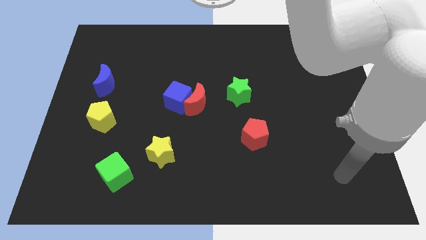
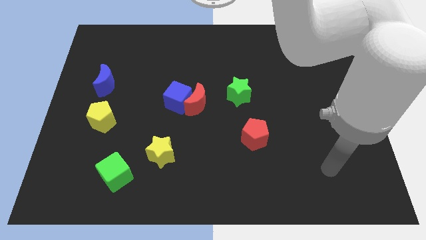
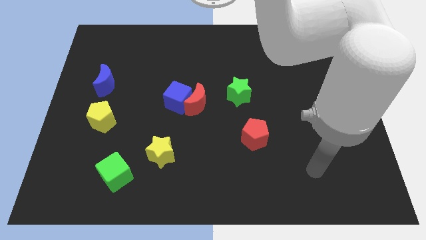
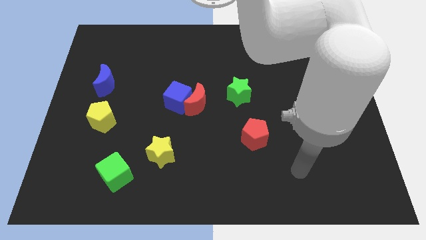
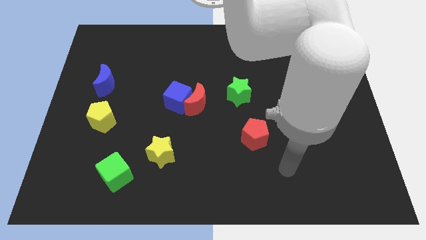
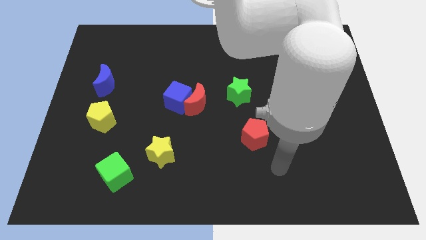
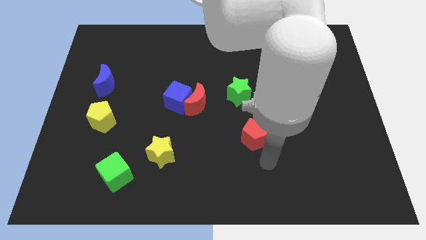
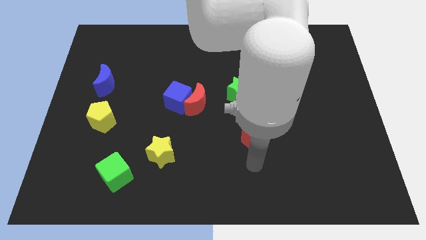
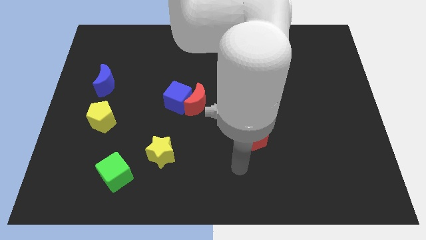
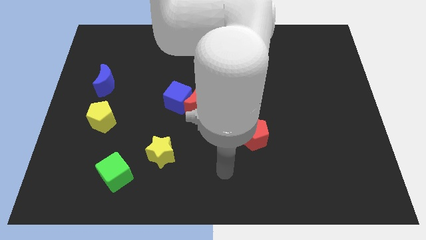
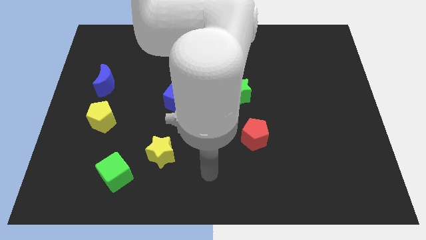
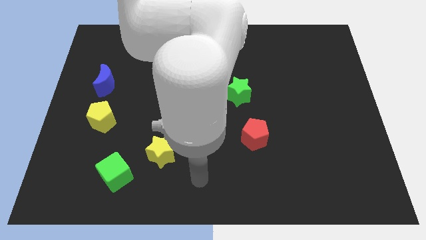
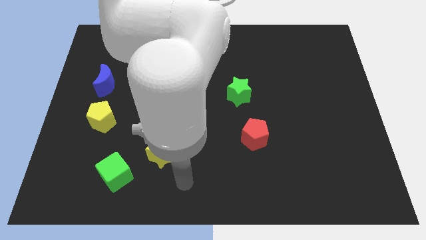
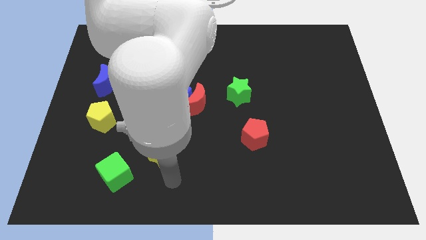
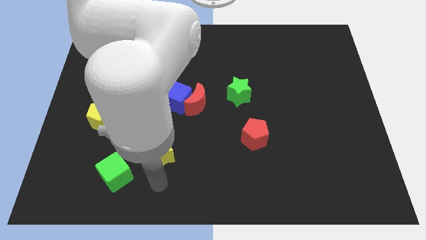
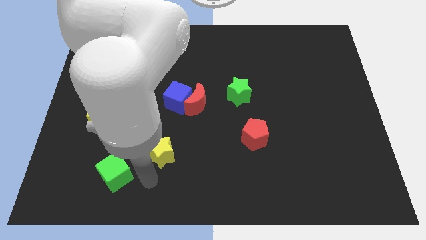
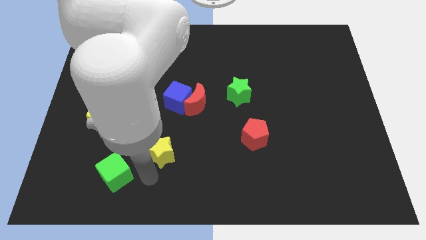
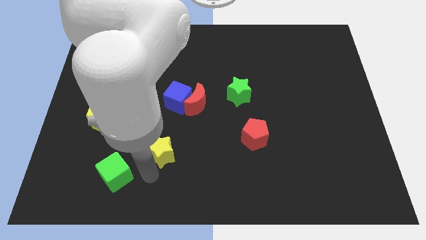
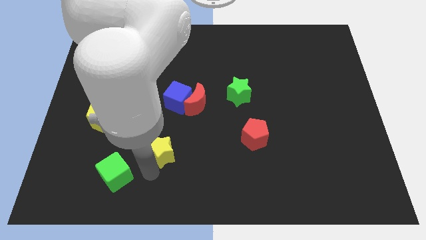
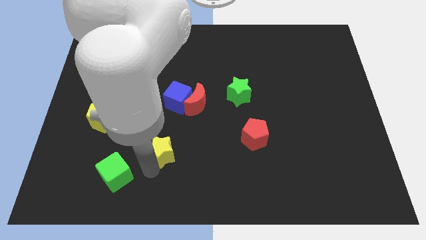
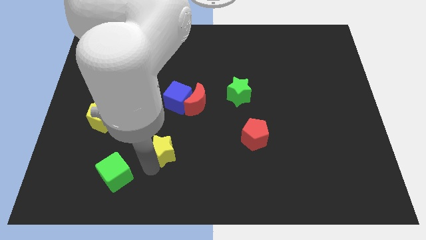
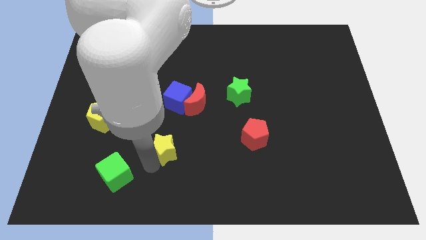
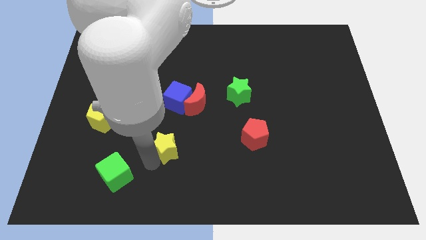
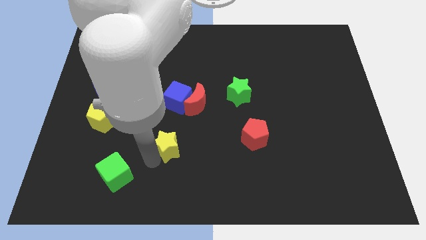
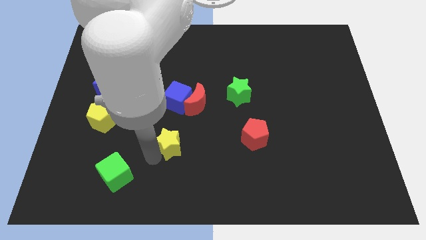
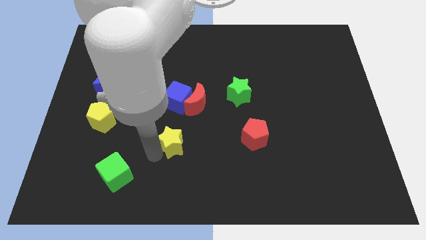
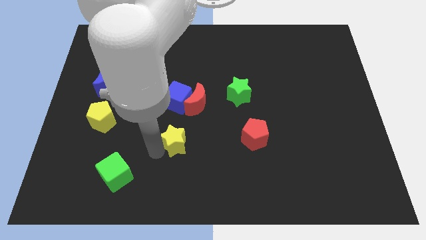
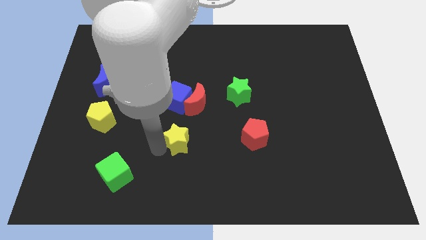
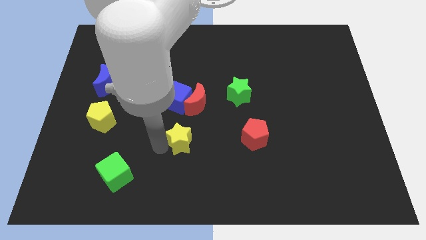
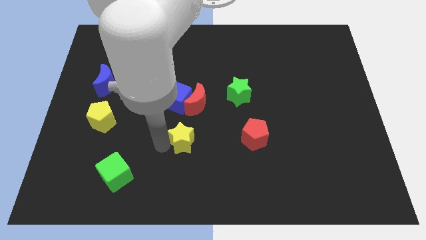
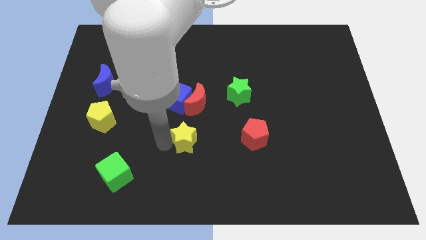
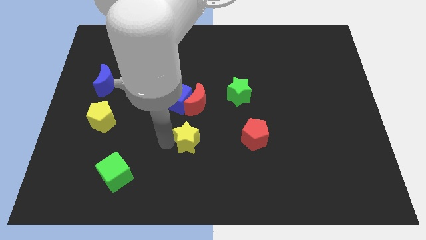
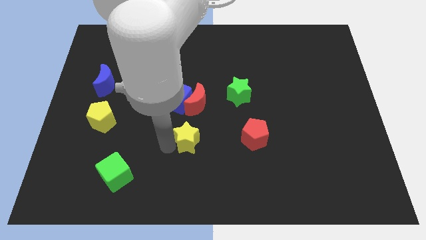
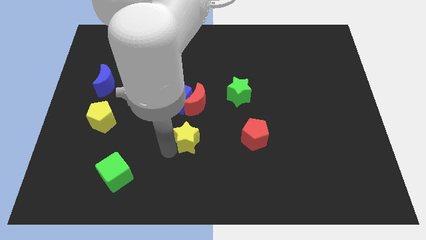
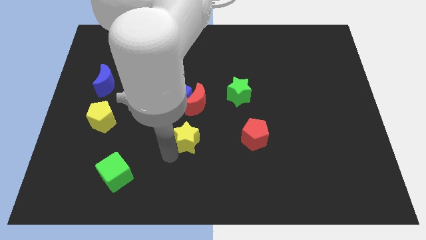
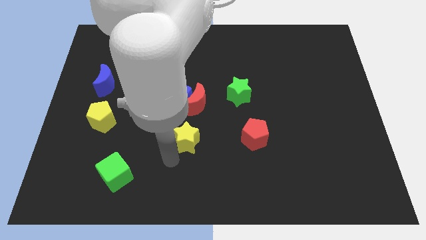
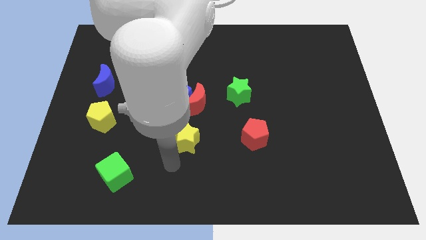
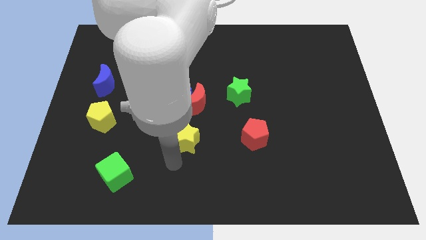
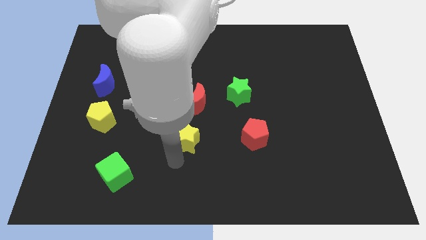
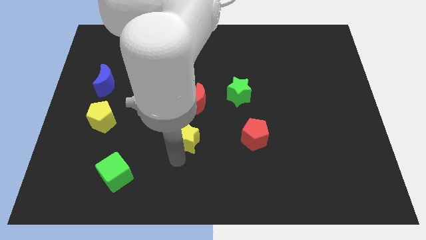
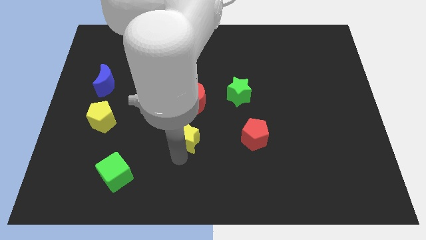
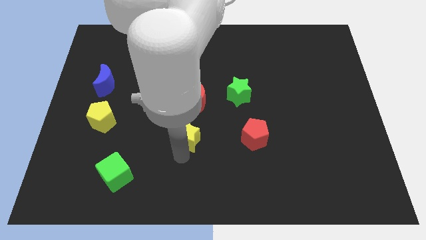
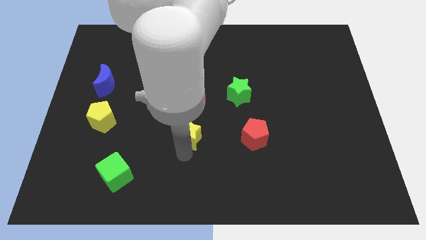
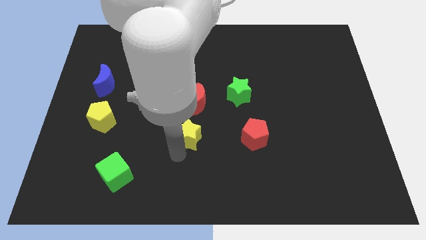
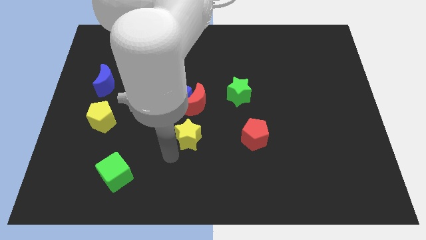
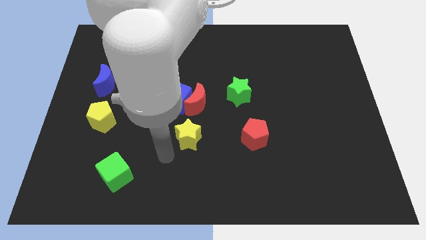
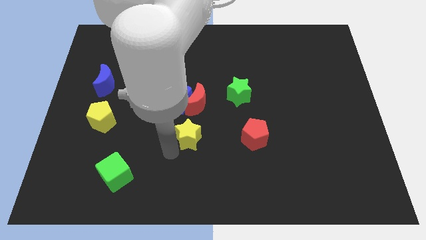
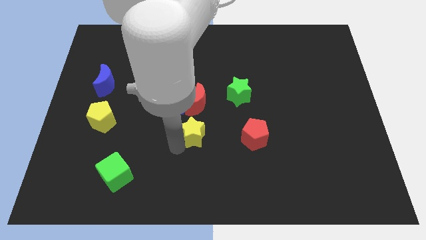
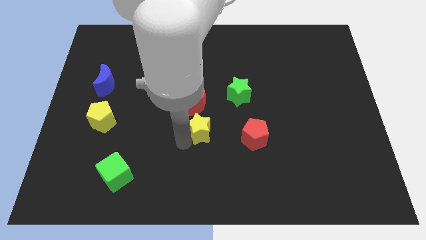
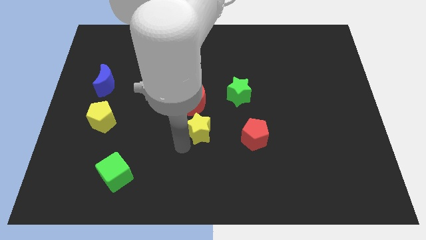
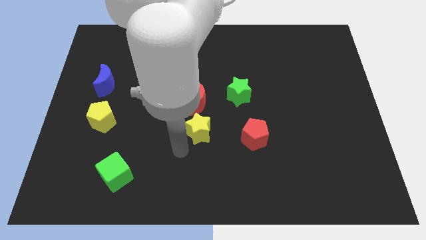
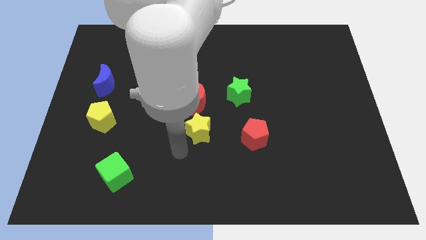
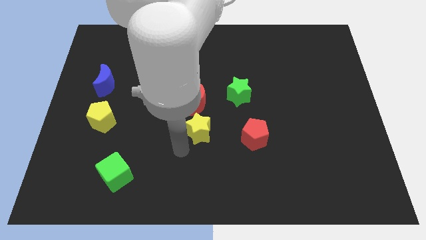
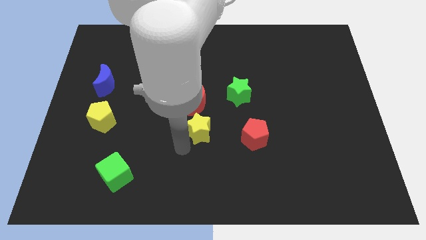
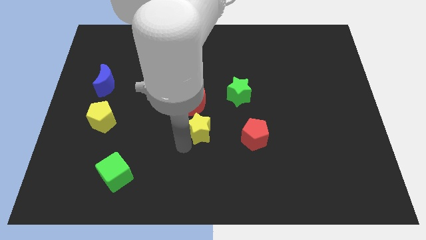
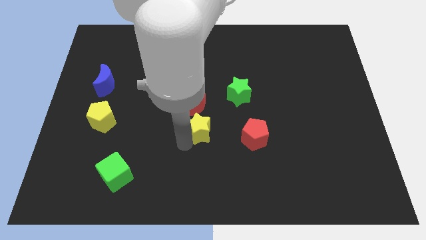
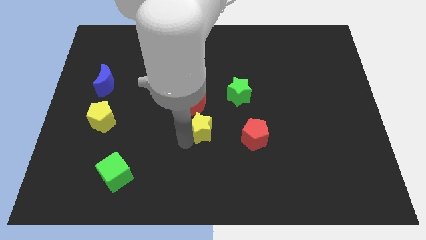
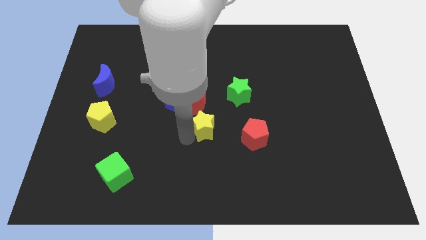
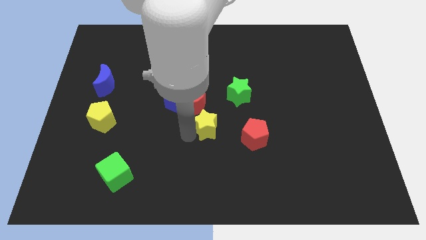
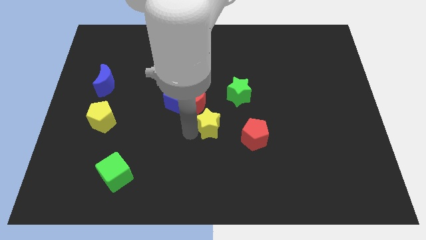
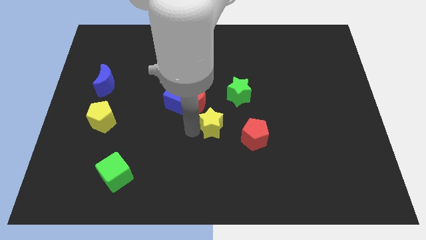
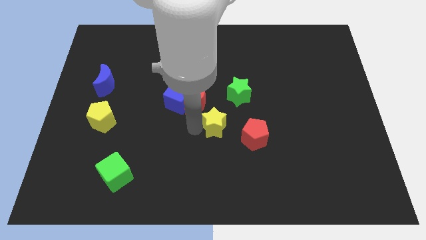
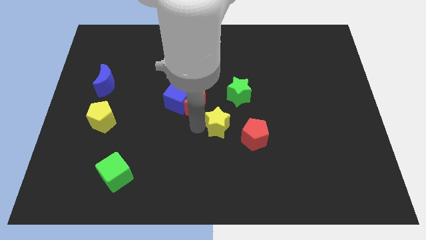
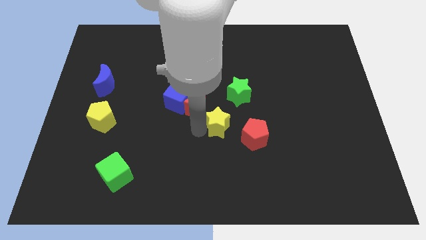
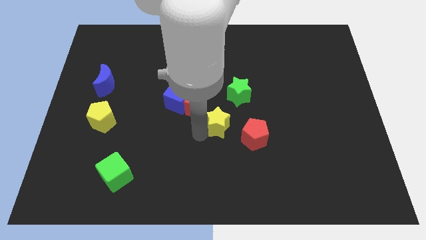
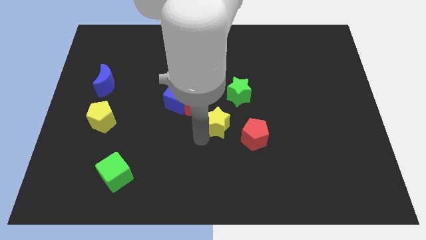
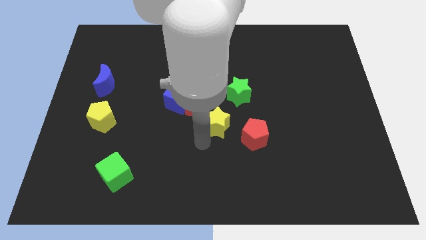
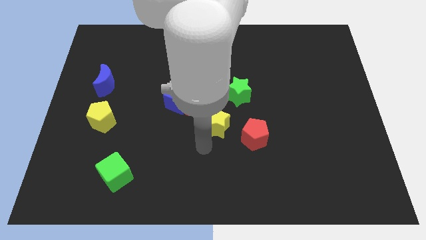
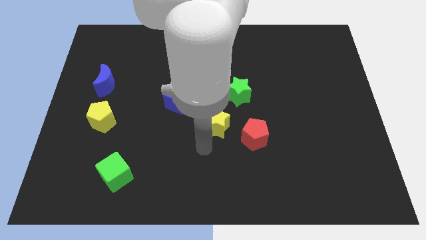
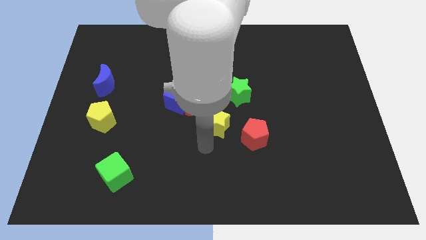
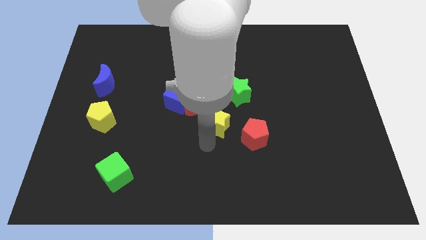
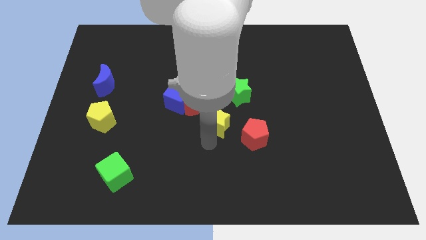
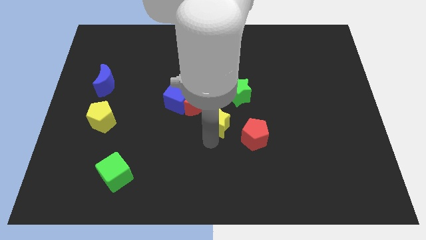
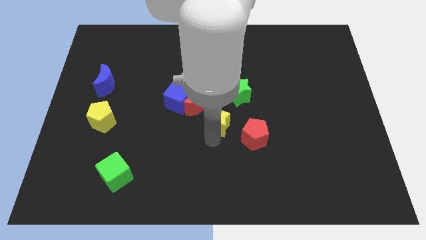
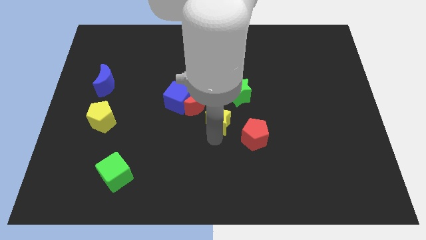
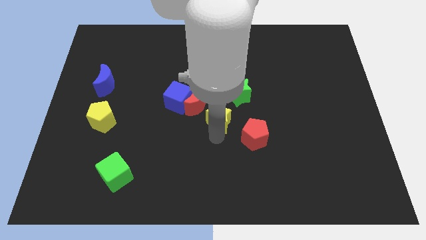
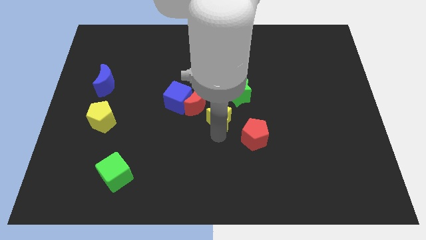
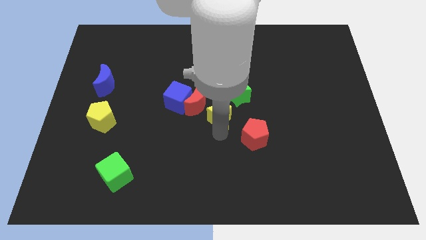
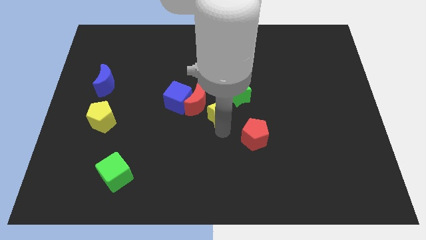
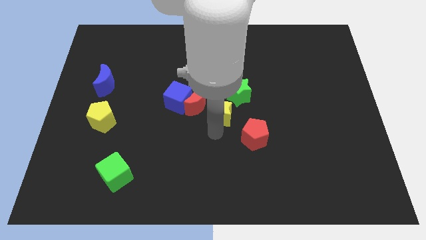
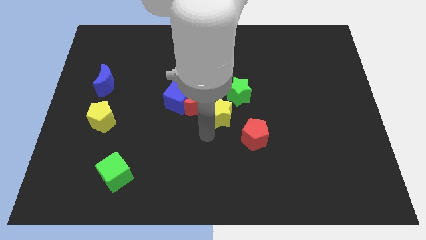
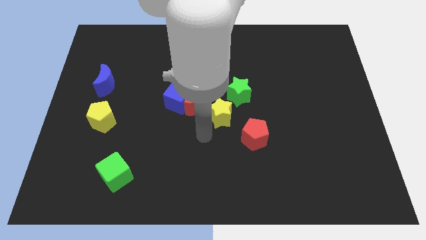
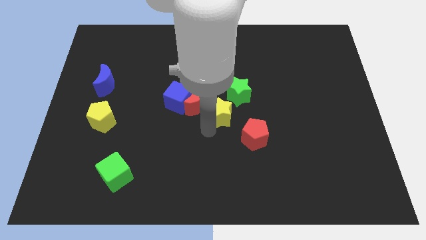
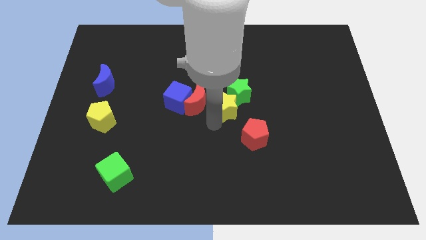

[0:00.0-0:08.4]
slide the yellow star close to the green star
